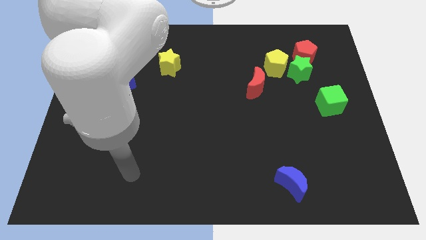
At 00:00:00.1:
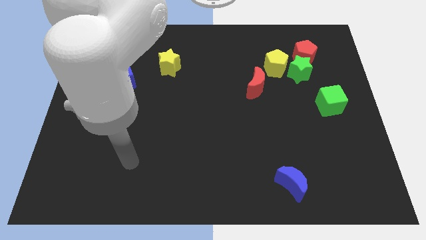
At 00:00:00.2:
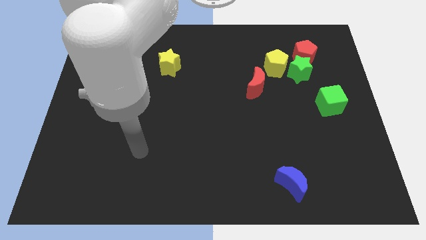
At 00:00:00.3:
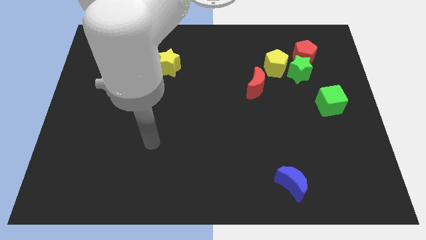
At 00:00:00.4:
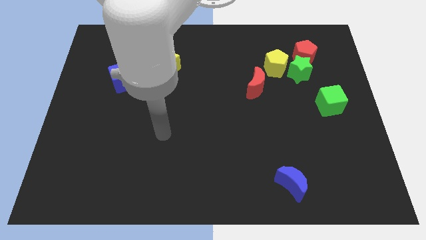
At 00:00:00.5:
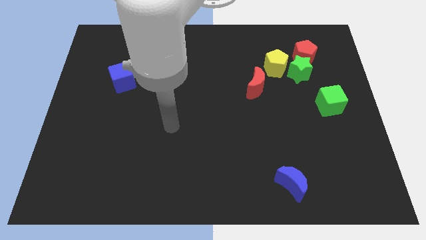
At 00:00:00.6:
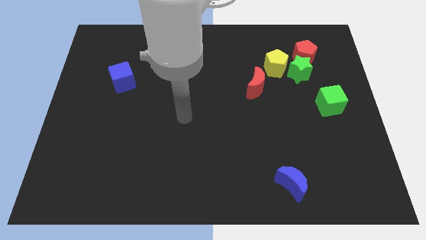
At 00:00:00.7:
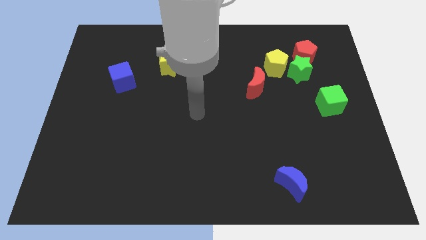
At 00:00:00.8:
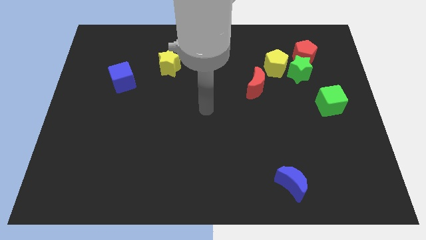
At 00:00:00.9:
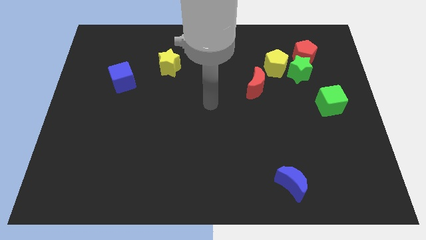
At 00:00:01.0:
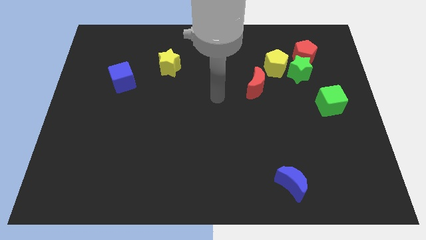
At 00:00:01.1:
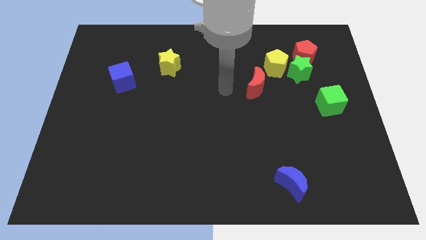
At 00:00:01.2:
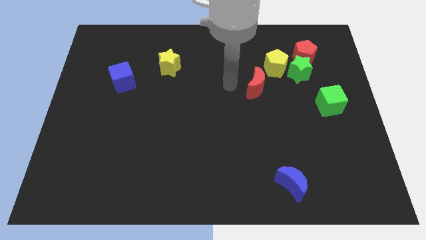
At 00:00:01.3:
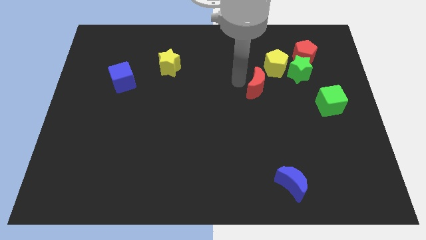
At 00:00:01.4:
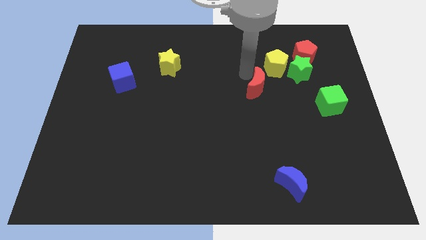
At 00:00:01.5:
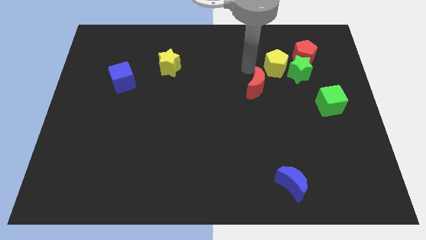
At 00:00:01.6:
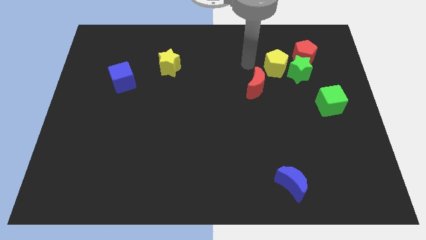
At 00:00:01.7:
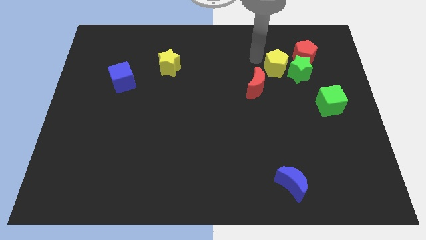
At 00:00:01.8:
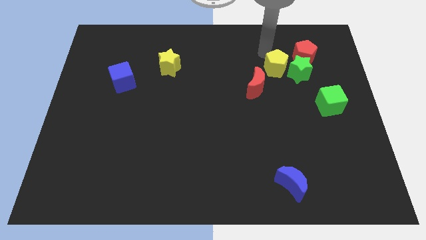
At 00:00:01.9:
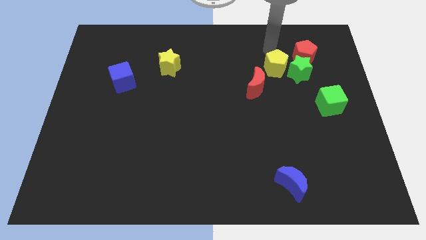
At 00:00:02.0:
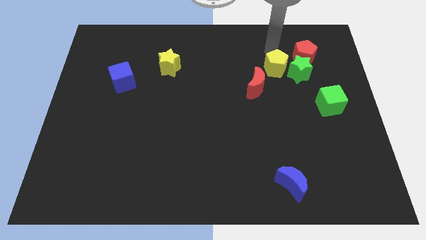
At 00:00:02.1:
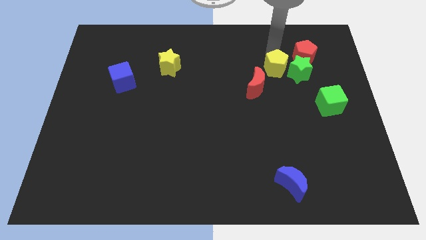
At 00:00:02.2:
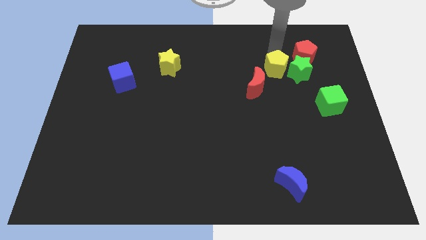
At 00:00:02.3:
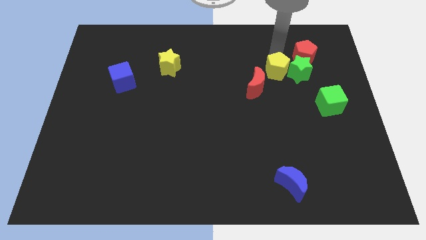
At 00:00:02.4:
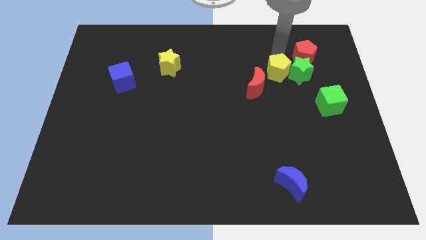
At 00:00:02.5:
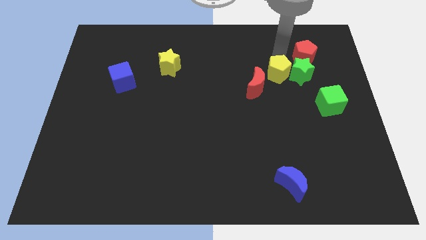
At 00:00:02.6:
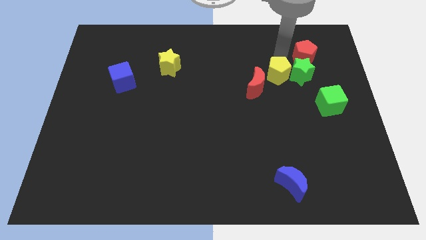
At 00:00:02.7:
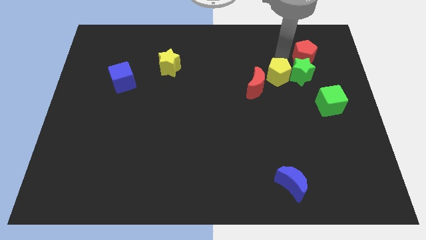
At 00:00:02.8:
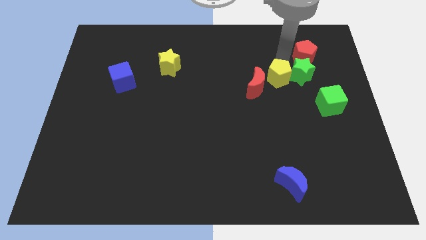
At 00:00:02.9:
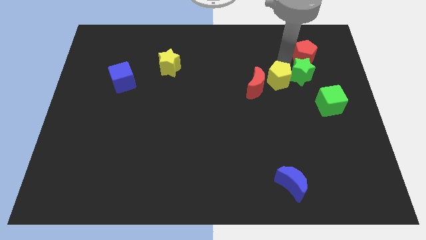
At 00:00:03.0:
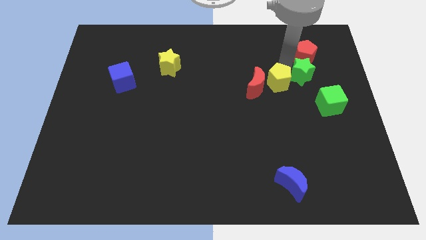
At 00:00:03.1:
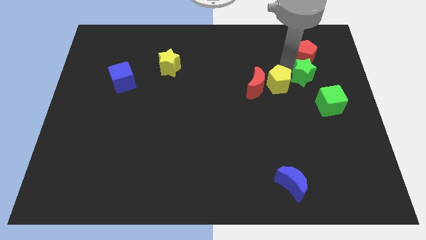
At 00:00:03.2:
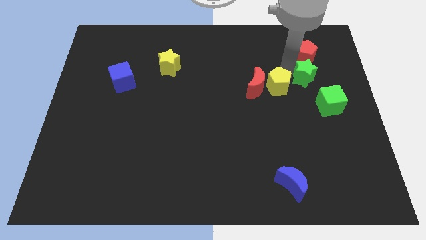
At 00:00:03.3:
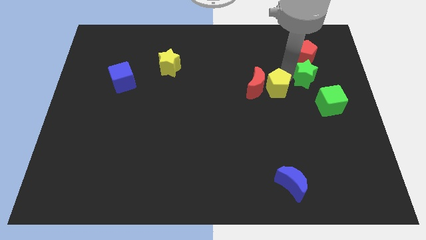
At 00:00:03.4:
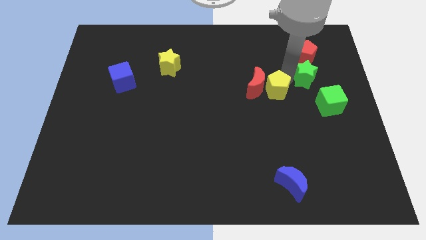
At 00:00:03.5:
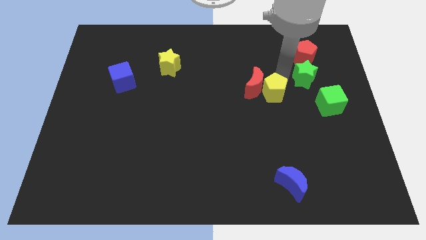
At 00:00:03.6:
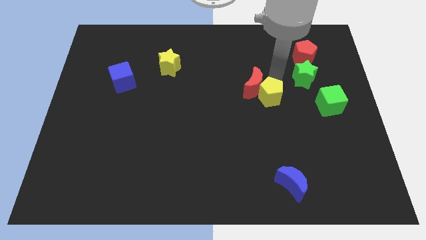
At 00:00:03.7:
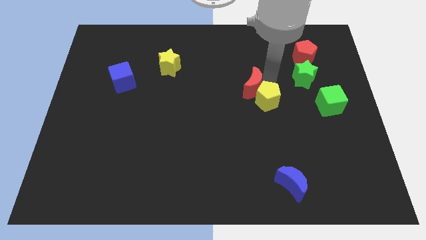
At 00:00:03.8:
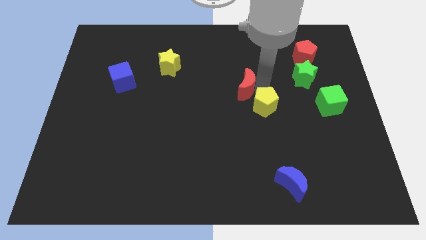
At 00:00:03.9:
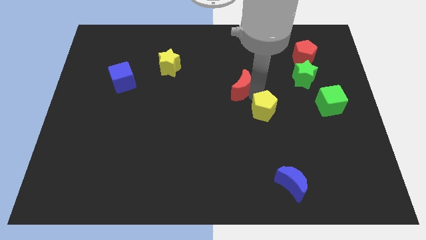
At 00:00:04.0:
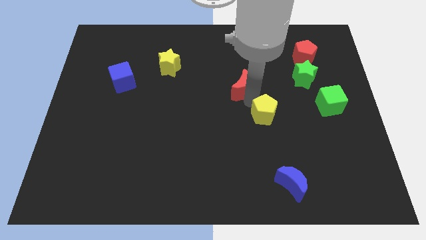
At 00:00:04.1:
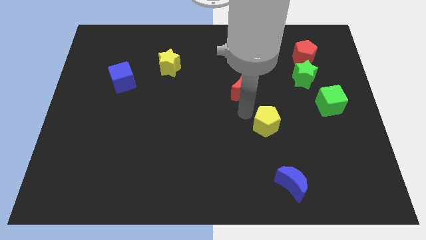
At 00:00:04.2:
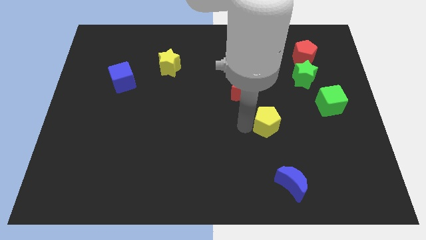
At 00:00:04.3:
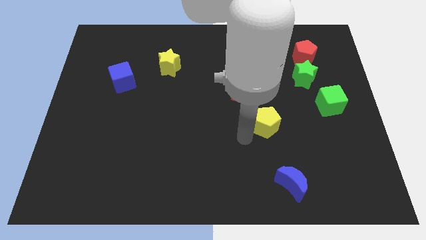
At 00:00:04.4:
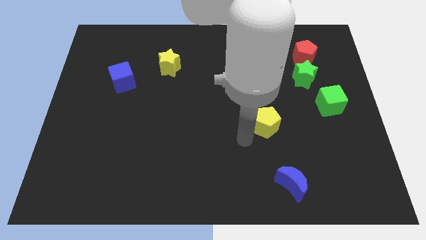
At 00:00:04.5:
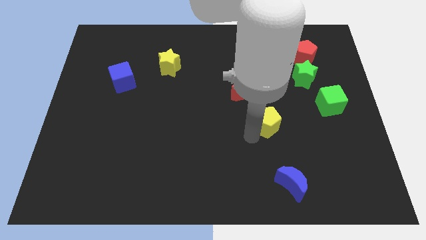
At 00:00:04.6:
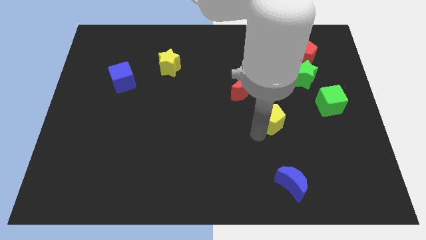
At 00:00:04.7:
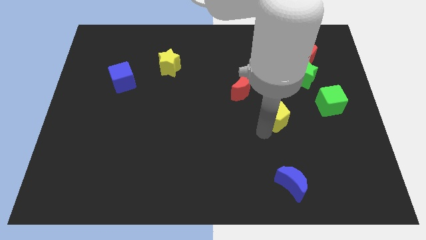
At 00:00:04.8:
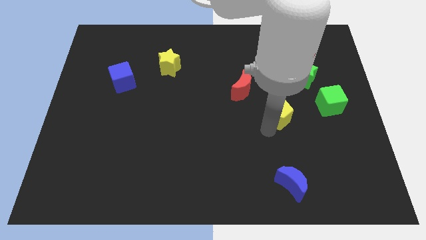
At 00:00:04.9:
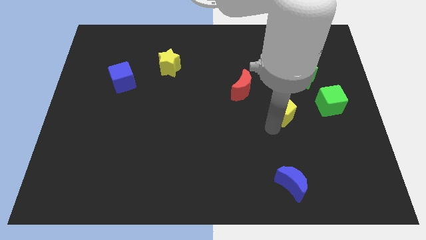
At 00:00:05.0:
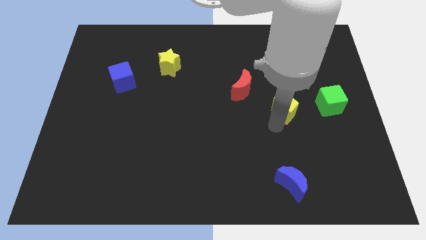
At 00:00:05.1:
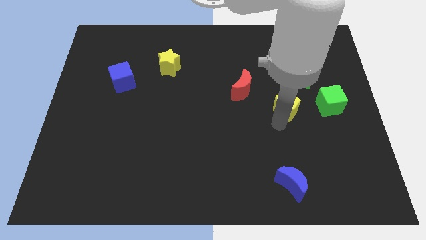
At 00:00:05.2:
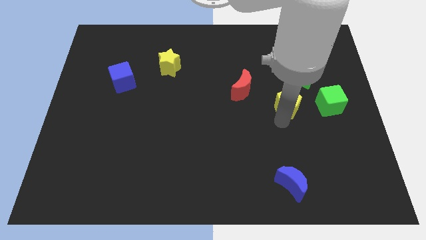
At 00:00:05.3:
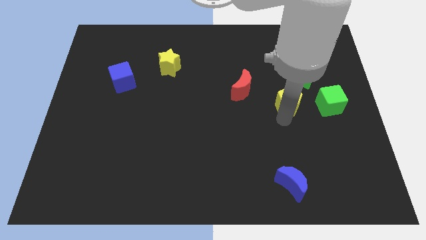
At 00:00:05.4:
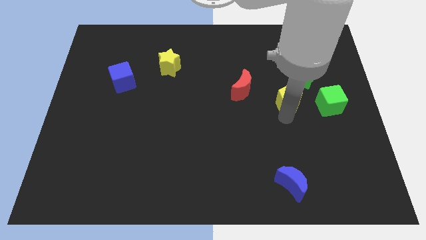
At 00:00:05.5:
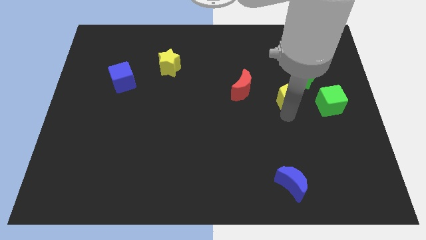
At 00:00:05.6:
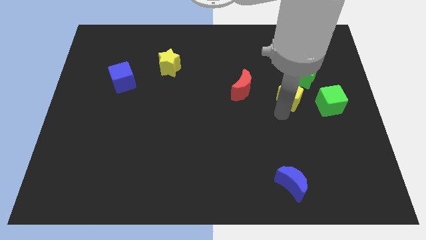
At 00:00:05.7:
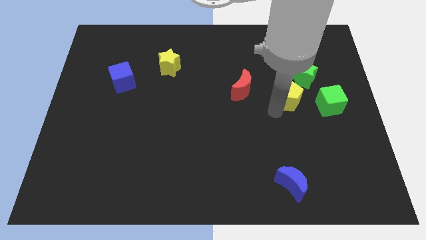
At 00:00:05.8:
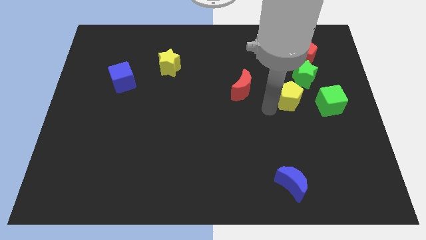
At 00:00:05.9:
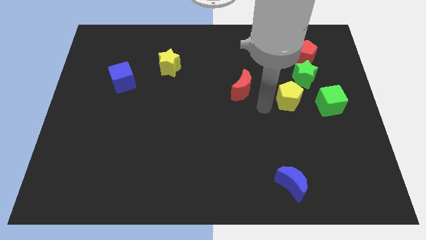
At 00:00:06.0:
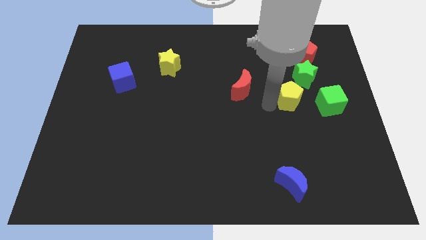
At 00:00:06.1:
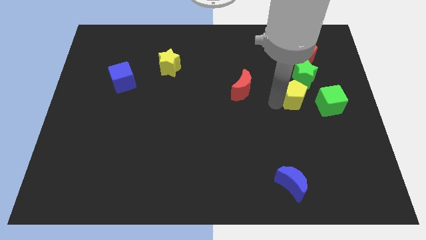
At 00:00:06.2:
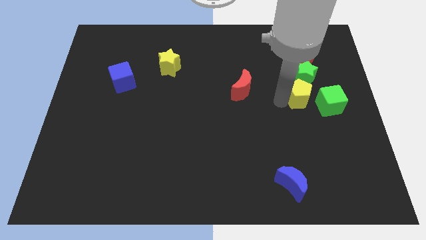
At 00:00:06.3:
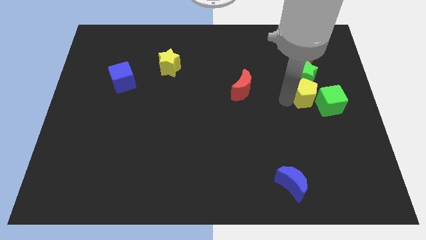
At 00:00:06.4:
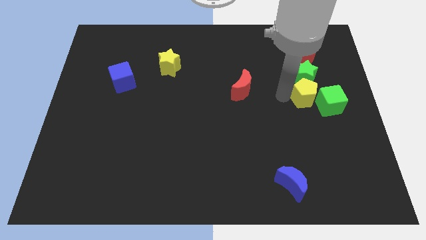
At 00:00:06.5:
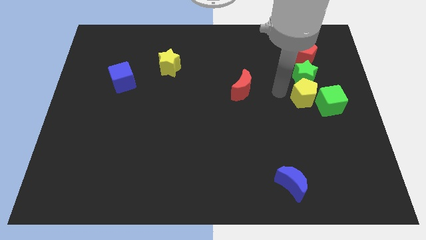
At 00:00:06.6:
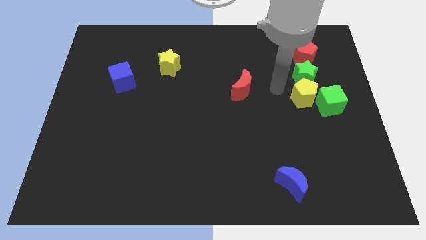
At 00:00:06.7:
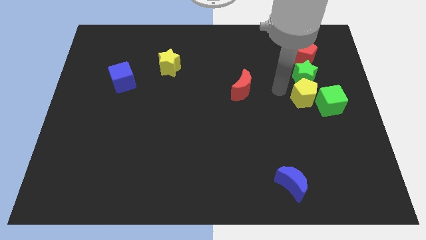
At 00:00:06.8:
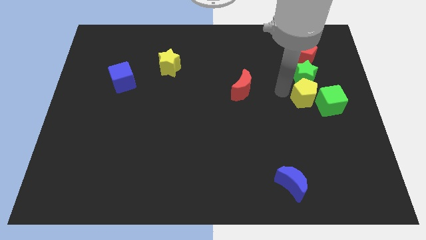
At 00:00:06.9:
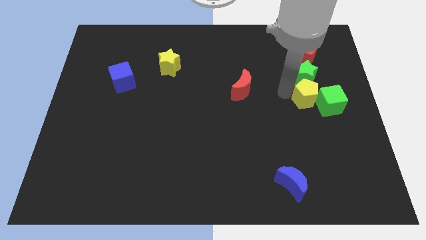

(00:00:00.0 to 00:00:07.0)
push the yellow pentagon close to the green cube

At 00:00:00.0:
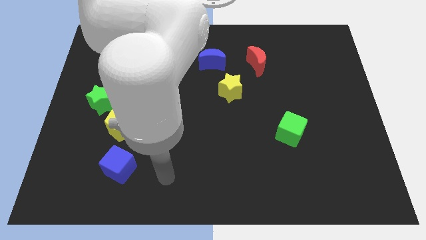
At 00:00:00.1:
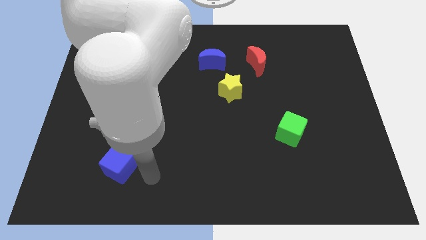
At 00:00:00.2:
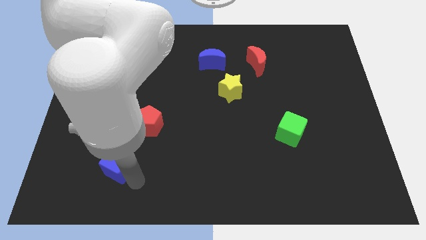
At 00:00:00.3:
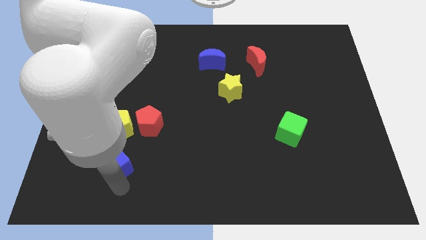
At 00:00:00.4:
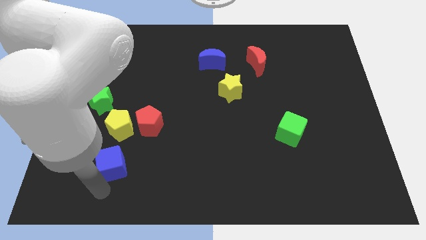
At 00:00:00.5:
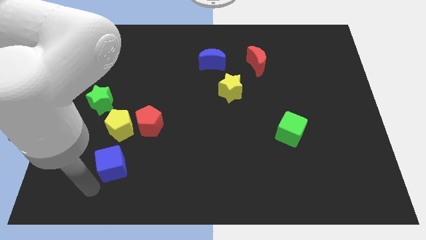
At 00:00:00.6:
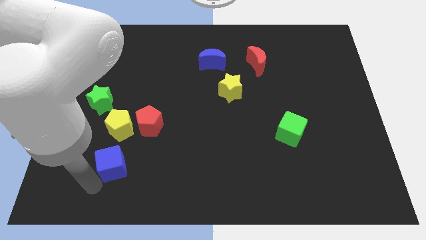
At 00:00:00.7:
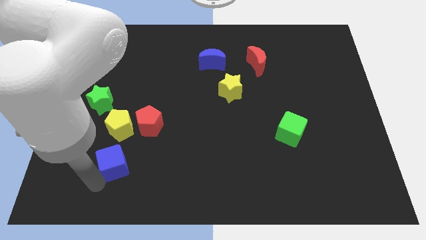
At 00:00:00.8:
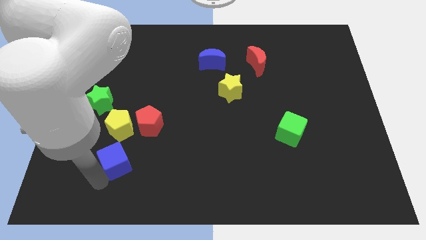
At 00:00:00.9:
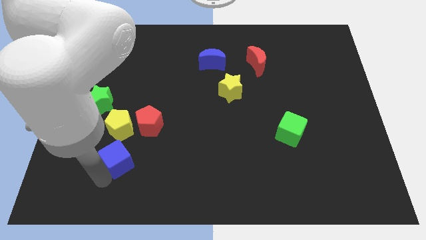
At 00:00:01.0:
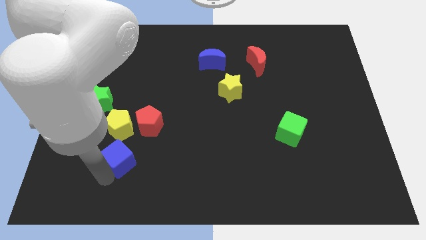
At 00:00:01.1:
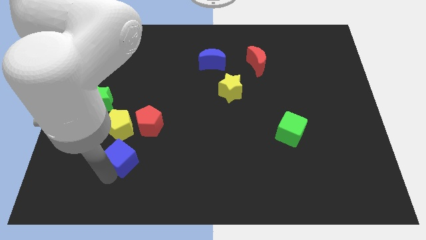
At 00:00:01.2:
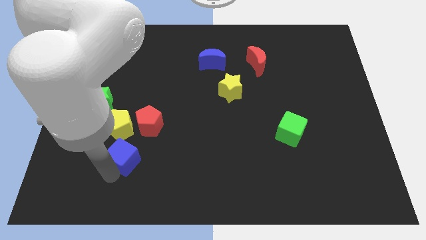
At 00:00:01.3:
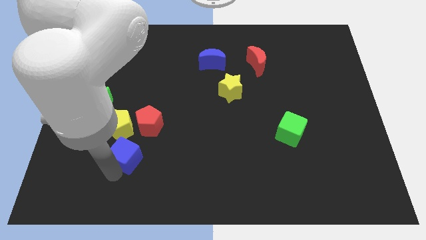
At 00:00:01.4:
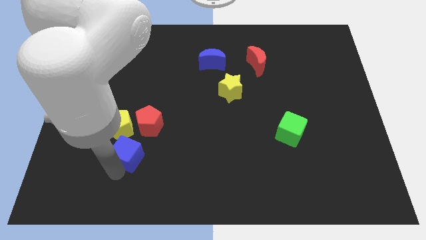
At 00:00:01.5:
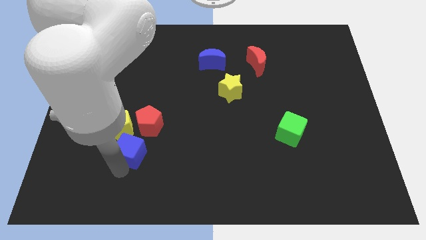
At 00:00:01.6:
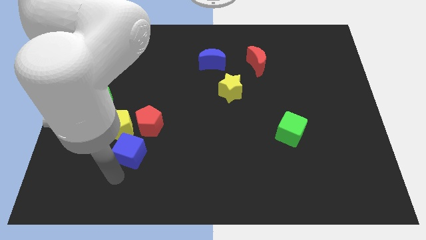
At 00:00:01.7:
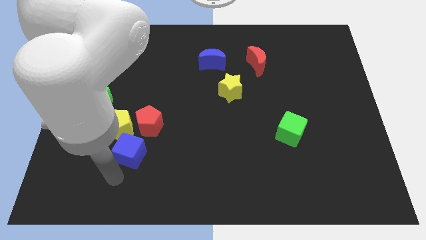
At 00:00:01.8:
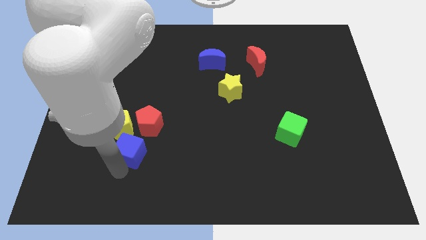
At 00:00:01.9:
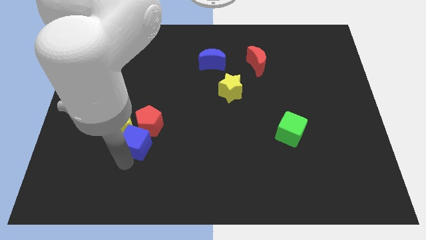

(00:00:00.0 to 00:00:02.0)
put the blue cube towards the red pentagon
